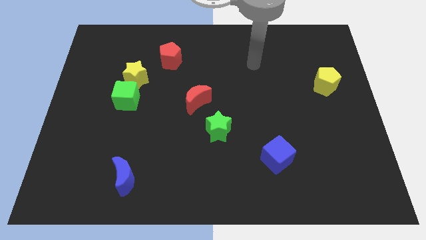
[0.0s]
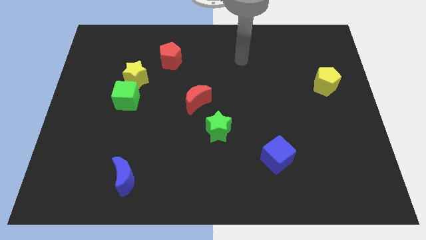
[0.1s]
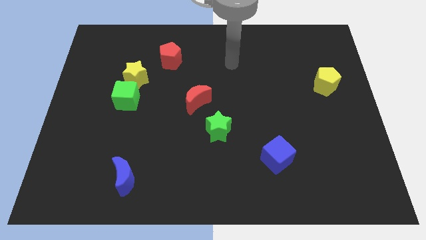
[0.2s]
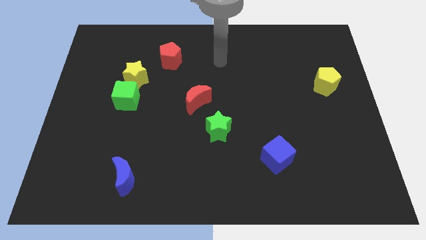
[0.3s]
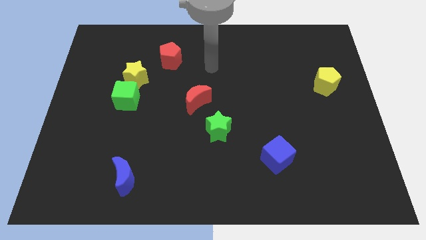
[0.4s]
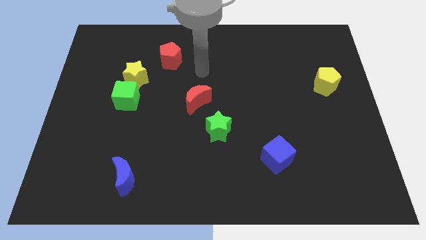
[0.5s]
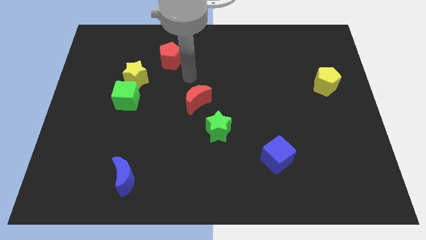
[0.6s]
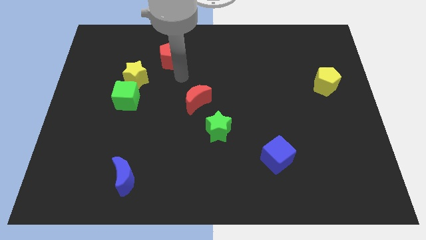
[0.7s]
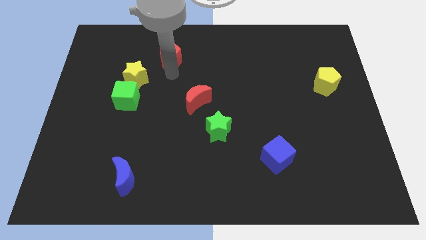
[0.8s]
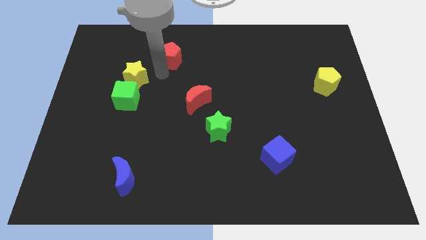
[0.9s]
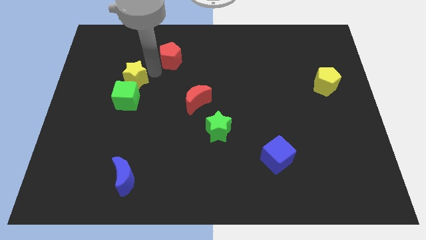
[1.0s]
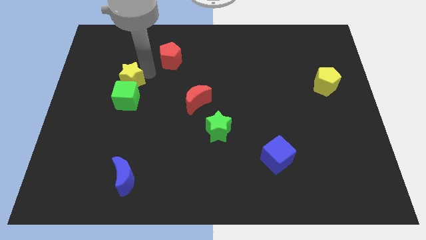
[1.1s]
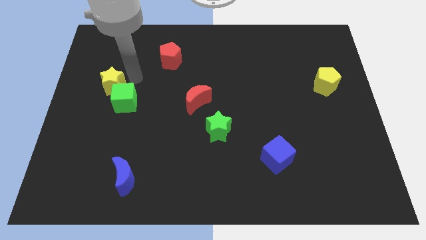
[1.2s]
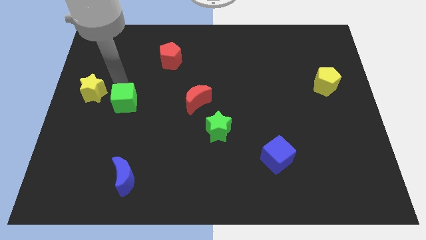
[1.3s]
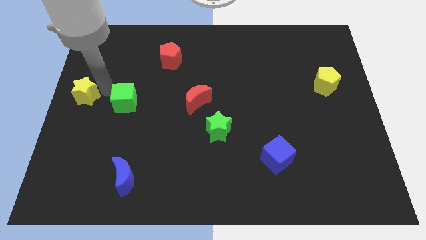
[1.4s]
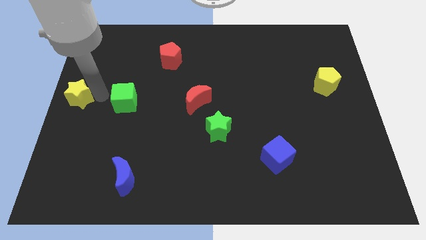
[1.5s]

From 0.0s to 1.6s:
pull the green cube apart from the yellow star

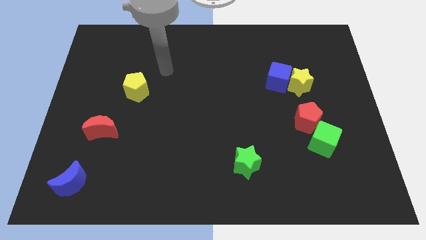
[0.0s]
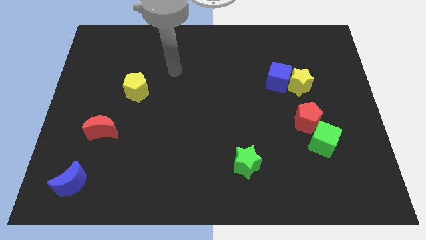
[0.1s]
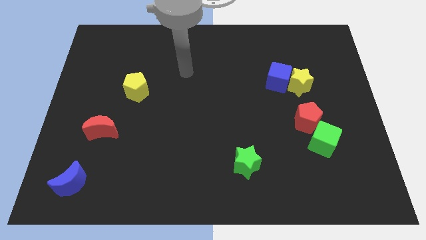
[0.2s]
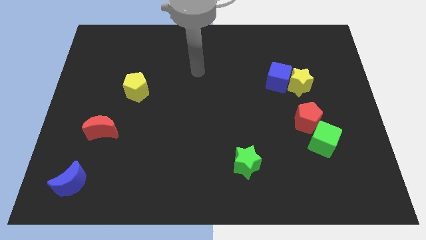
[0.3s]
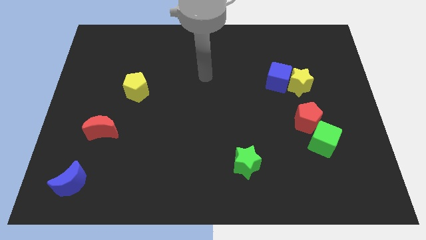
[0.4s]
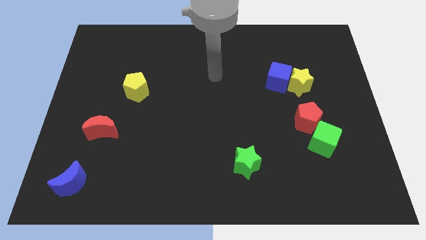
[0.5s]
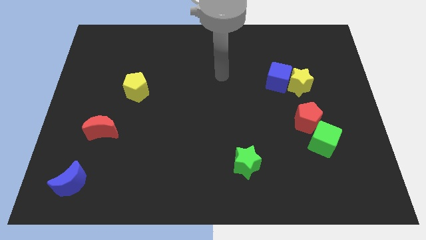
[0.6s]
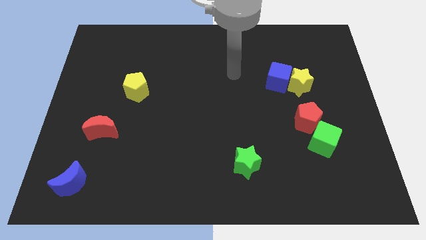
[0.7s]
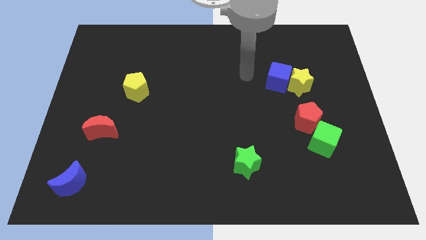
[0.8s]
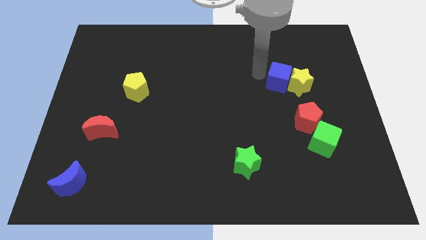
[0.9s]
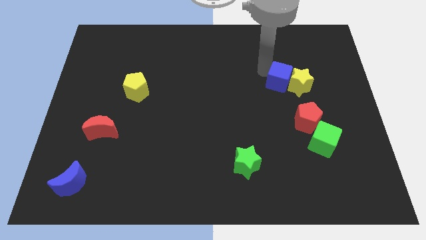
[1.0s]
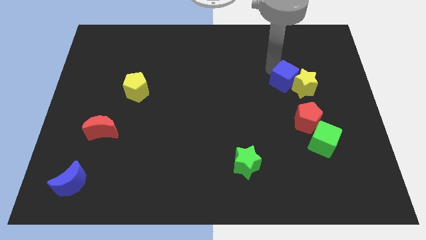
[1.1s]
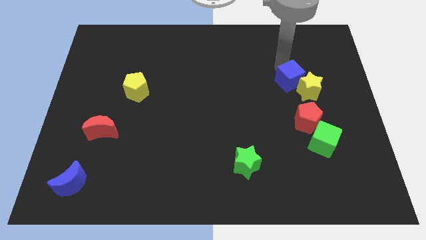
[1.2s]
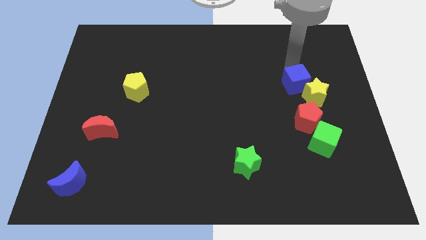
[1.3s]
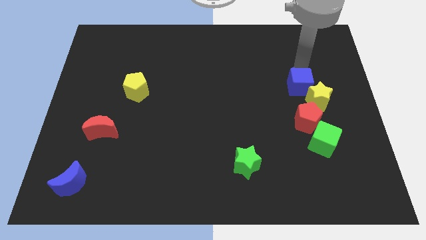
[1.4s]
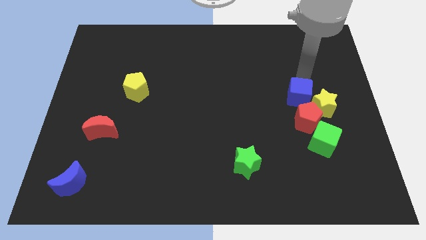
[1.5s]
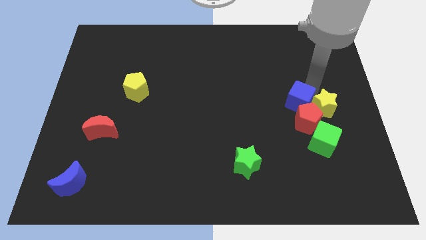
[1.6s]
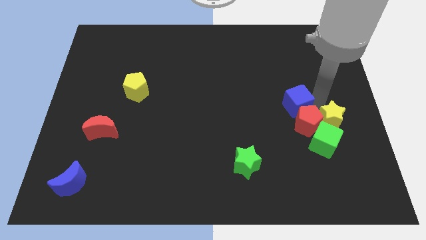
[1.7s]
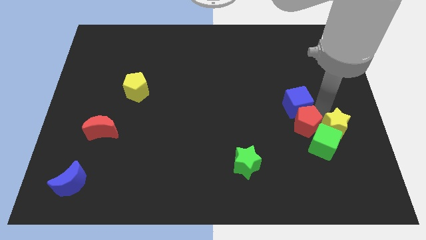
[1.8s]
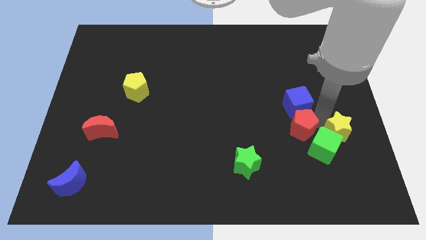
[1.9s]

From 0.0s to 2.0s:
pull the blue cube apart from the yellow star

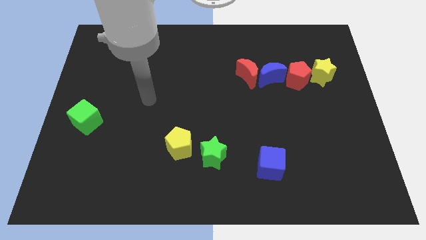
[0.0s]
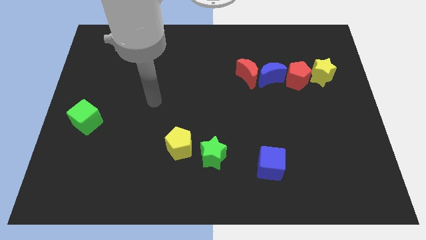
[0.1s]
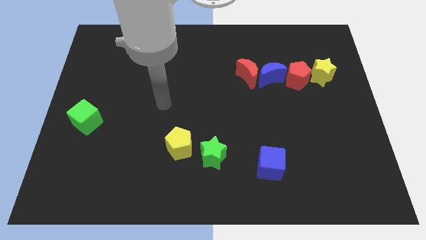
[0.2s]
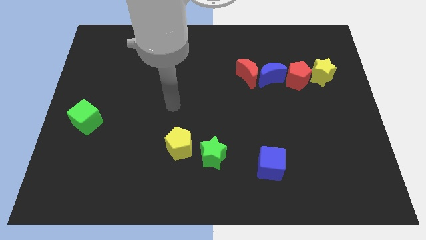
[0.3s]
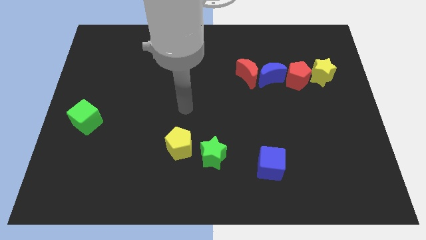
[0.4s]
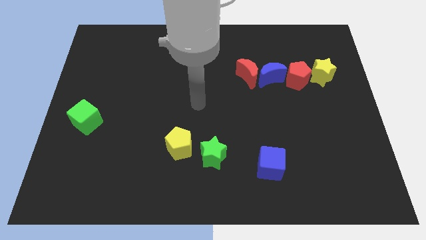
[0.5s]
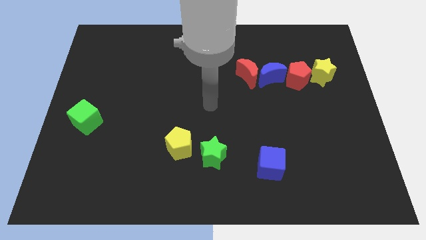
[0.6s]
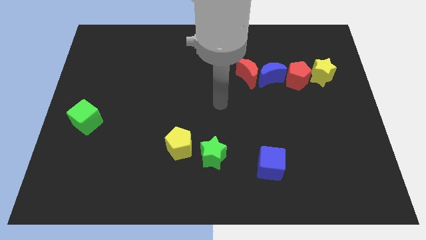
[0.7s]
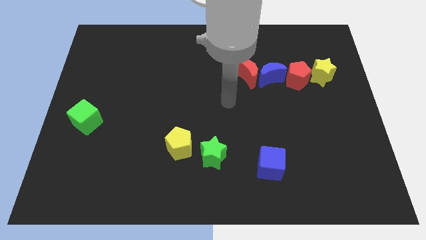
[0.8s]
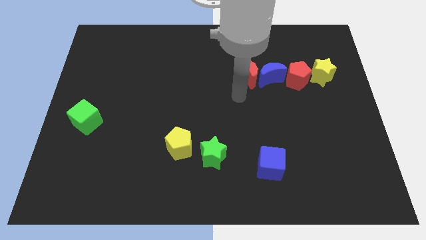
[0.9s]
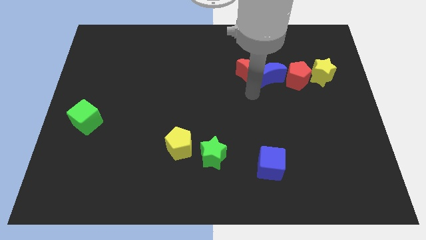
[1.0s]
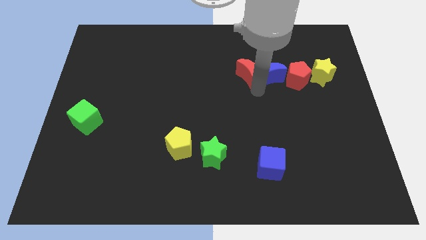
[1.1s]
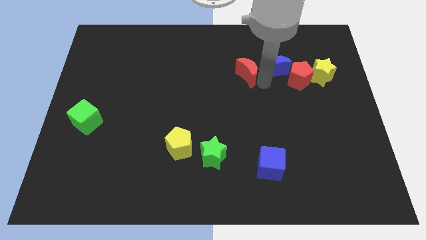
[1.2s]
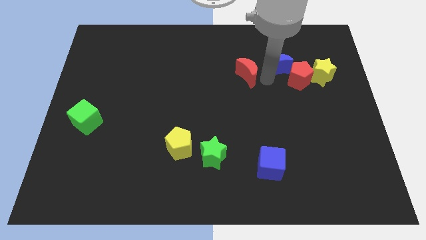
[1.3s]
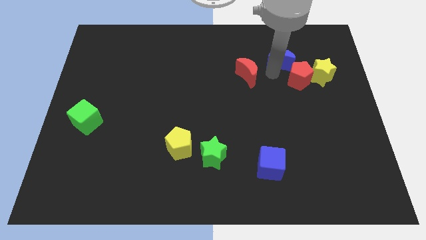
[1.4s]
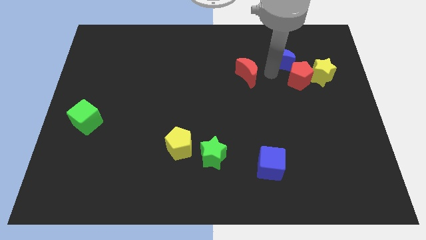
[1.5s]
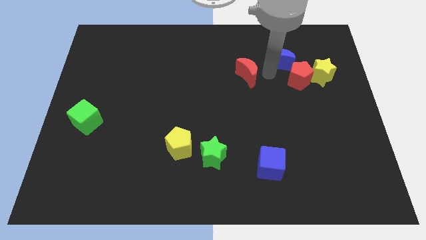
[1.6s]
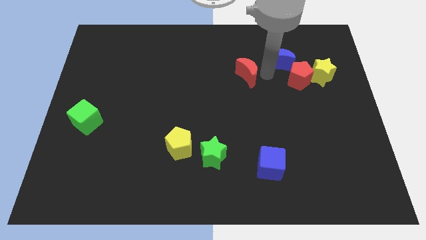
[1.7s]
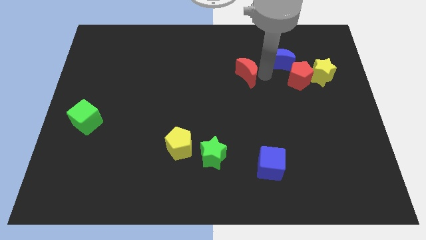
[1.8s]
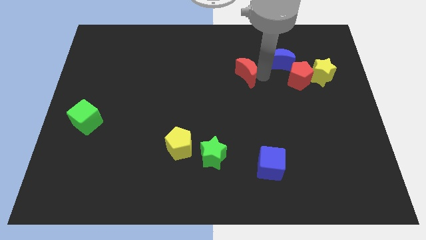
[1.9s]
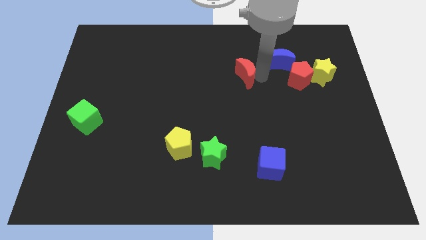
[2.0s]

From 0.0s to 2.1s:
separate the red moon from the blue moon

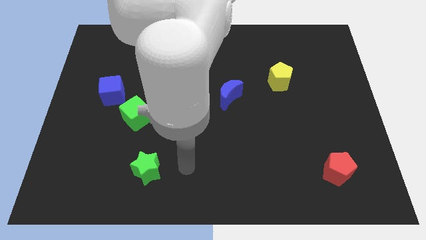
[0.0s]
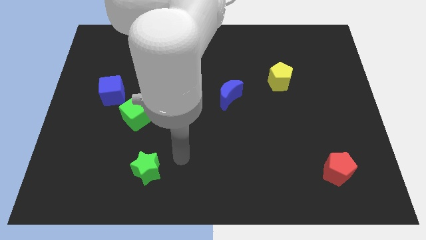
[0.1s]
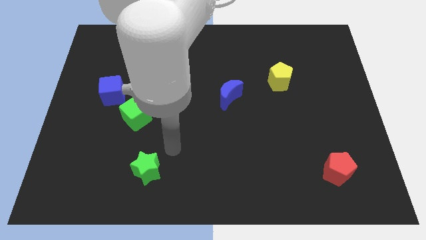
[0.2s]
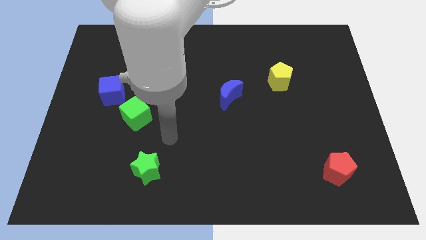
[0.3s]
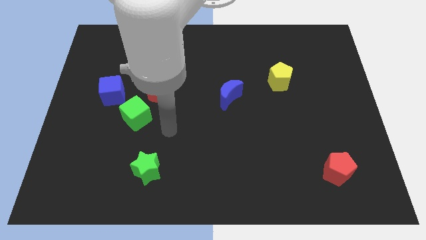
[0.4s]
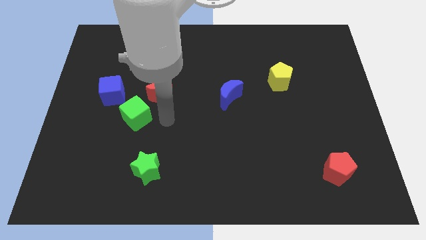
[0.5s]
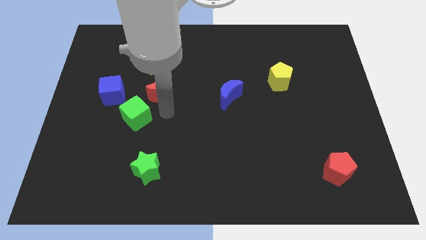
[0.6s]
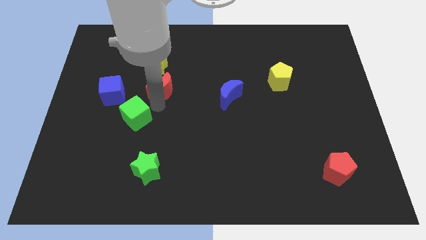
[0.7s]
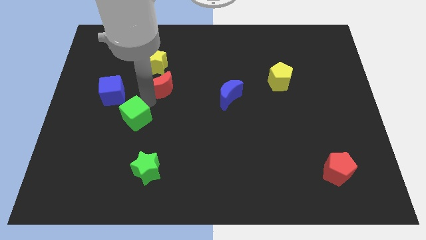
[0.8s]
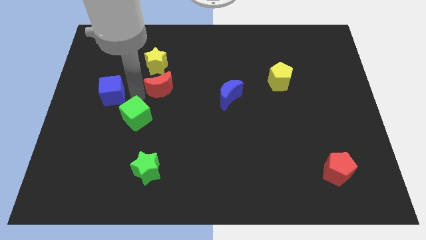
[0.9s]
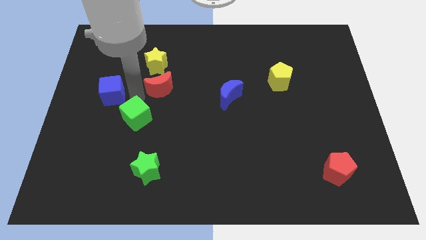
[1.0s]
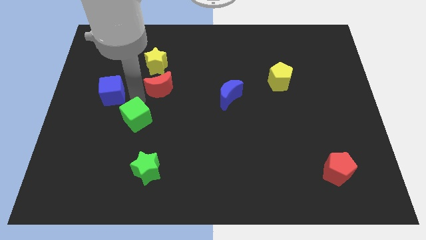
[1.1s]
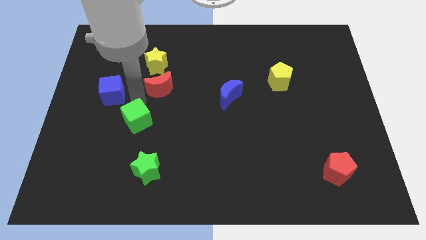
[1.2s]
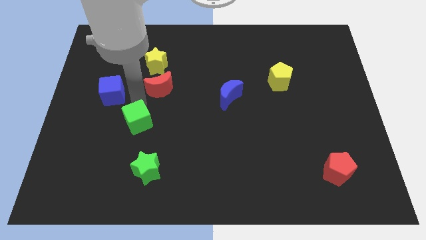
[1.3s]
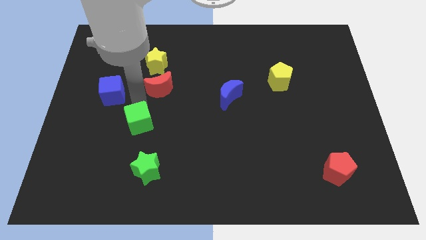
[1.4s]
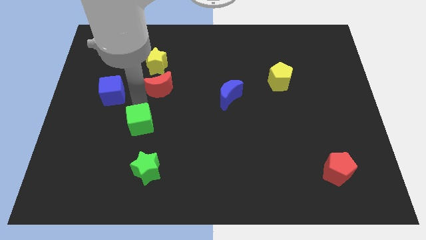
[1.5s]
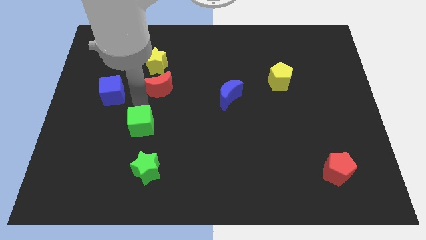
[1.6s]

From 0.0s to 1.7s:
move the green cube away from the red moon and blue cube

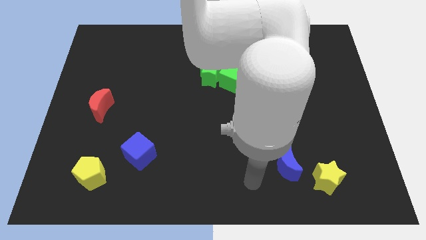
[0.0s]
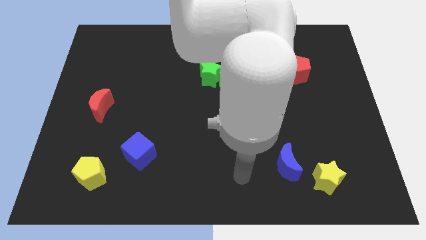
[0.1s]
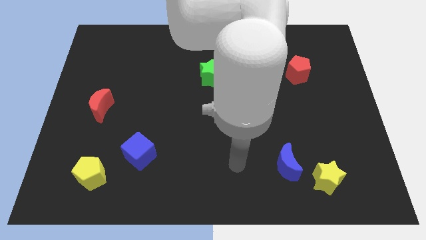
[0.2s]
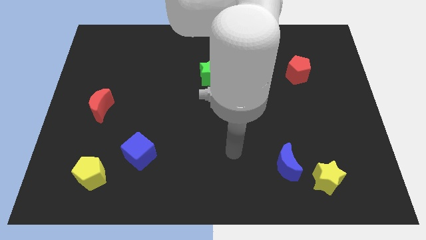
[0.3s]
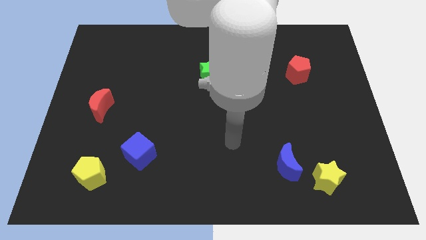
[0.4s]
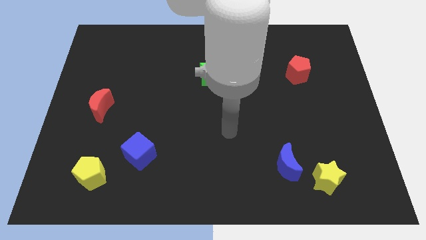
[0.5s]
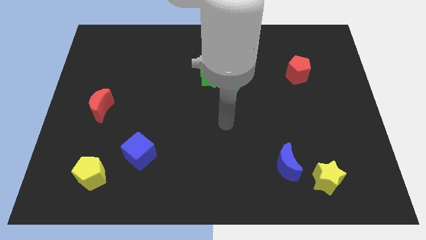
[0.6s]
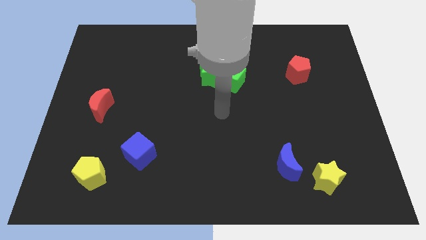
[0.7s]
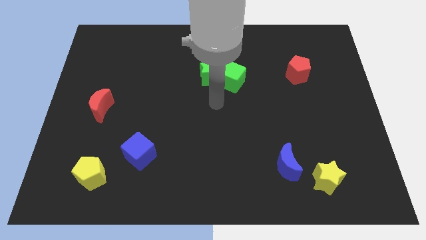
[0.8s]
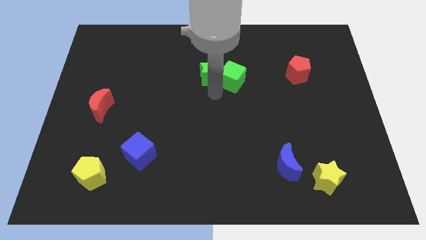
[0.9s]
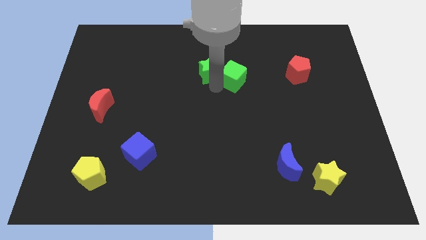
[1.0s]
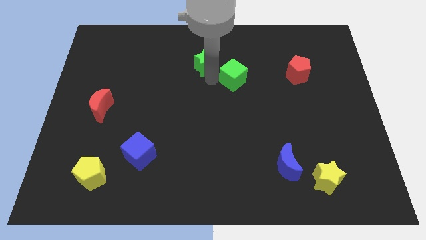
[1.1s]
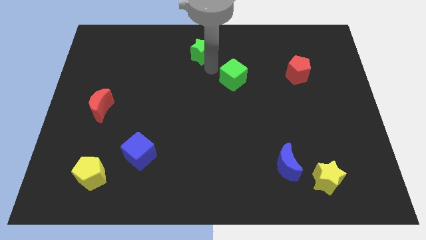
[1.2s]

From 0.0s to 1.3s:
move the green cube away from the green star

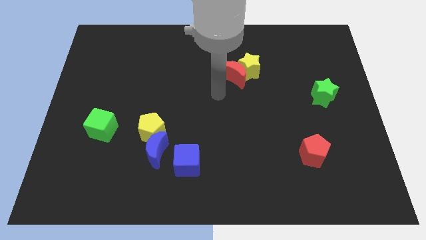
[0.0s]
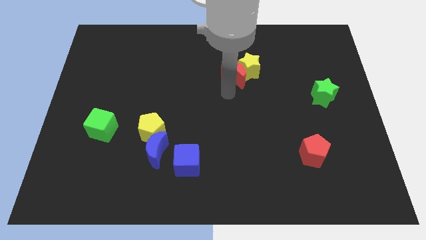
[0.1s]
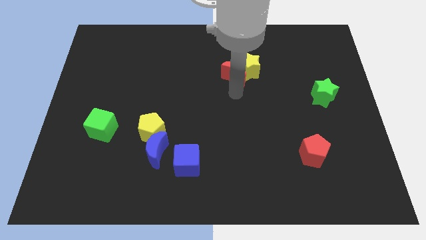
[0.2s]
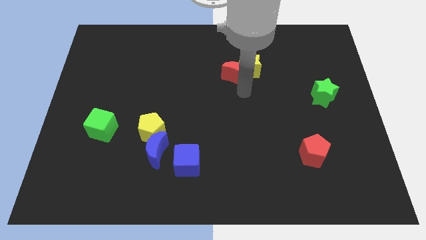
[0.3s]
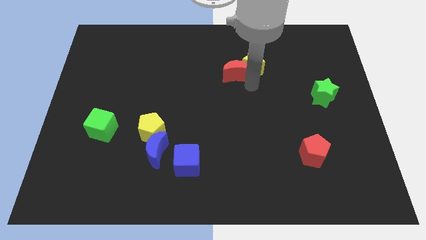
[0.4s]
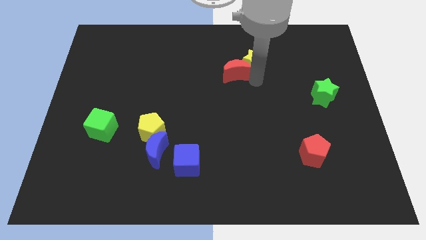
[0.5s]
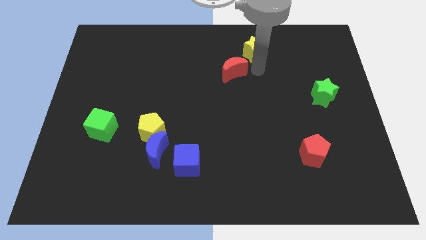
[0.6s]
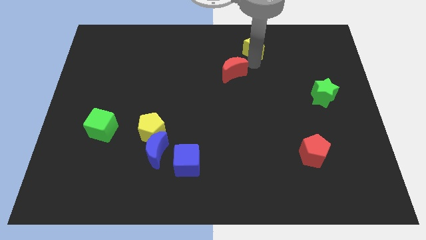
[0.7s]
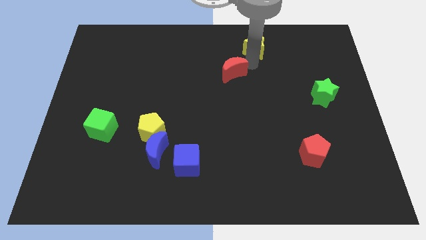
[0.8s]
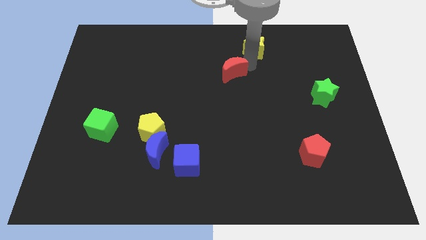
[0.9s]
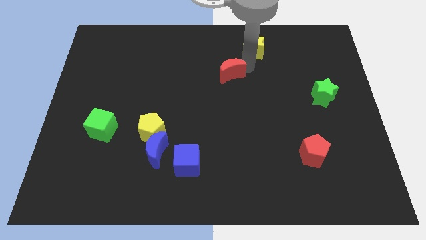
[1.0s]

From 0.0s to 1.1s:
separate the red moon from the yellow star
